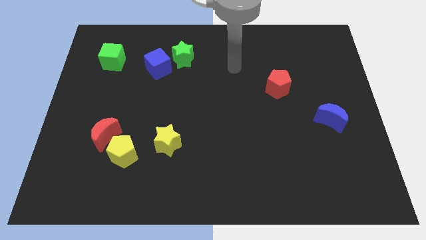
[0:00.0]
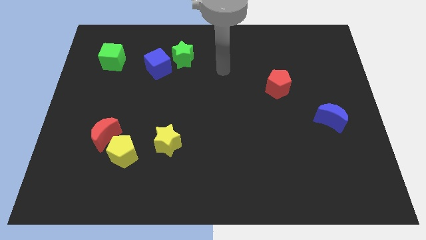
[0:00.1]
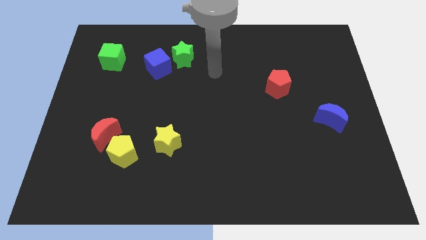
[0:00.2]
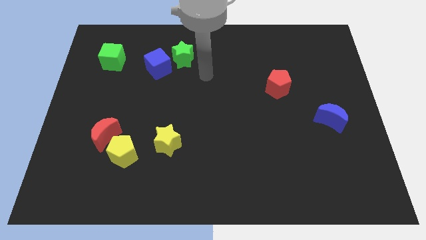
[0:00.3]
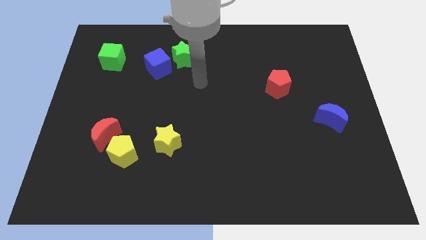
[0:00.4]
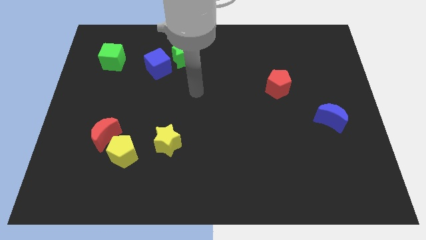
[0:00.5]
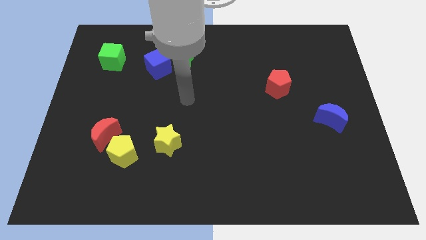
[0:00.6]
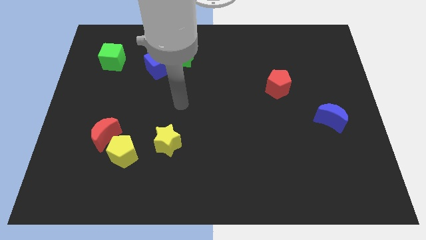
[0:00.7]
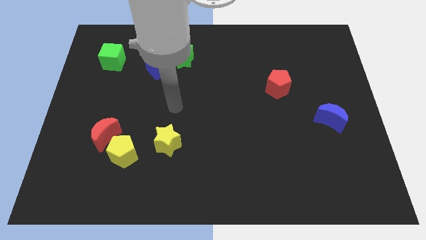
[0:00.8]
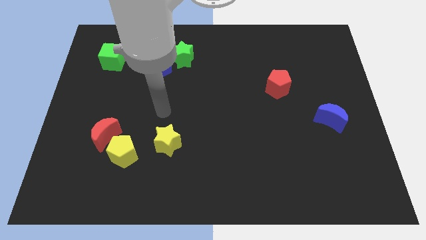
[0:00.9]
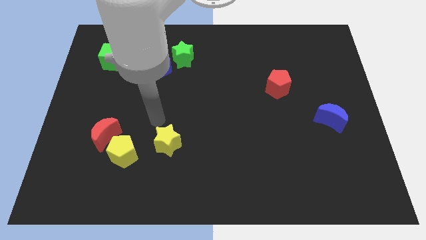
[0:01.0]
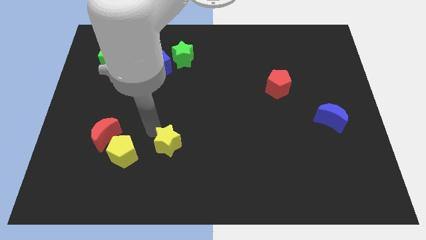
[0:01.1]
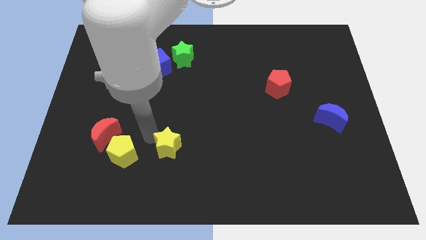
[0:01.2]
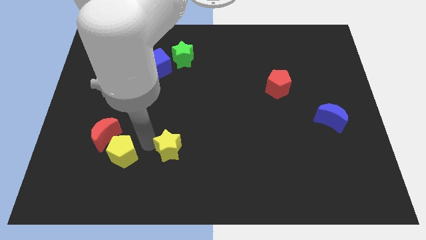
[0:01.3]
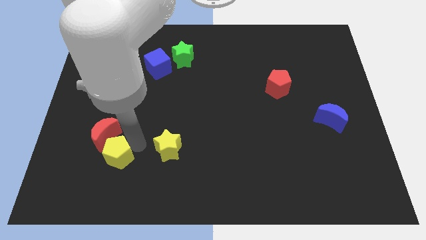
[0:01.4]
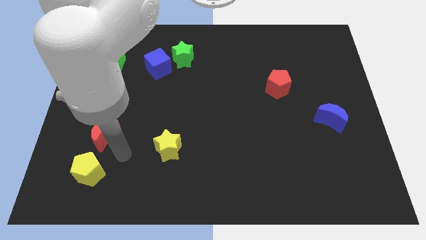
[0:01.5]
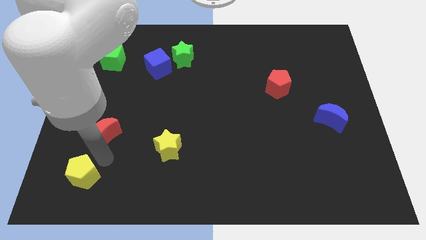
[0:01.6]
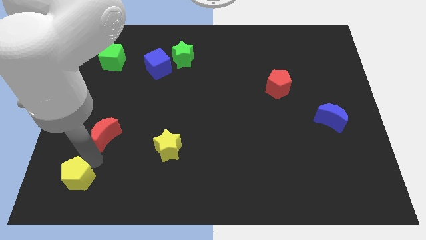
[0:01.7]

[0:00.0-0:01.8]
move the red moon away from the yellow pentagon

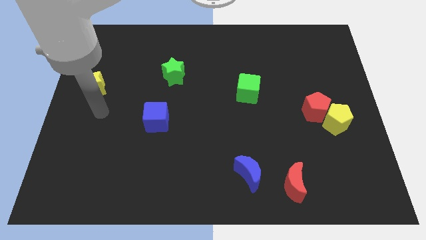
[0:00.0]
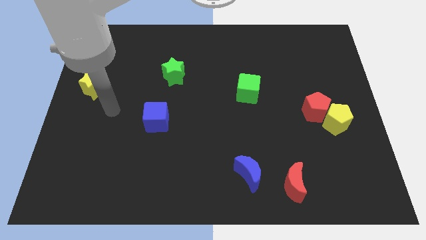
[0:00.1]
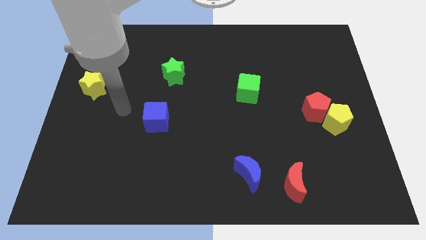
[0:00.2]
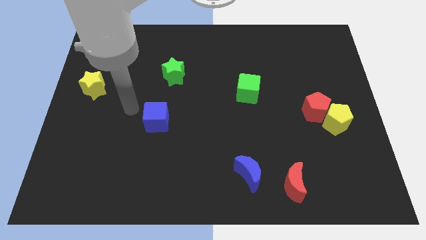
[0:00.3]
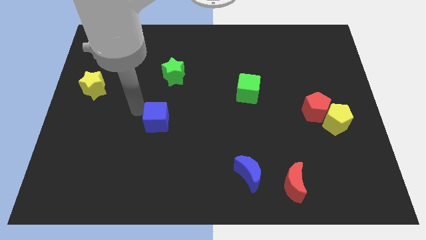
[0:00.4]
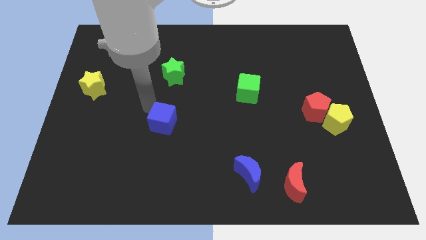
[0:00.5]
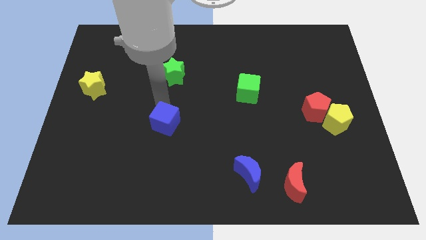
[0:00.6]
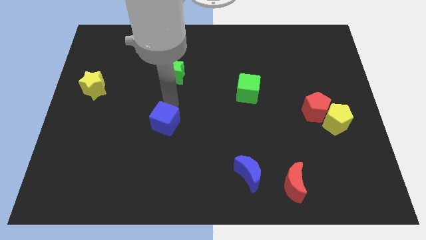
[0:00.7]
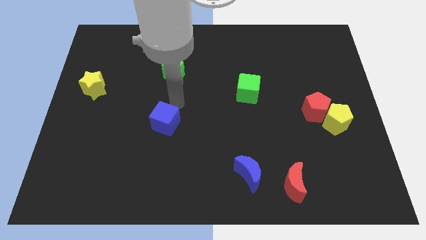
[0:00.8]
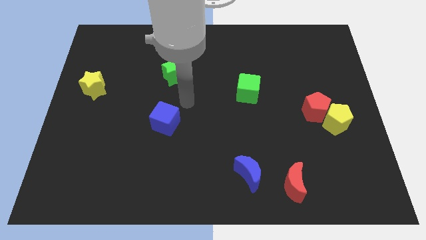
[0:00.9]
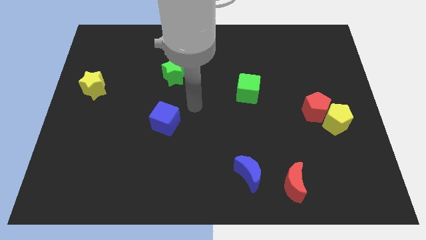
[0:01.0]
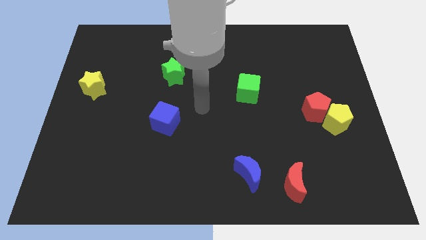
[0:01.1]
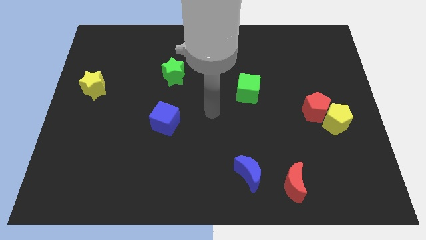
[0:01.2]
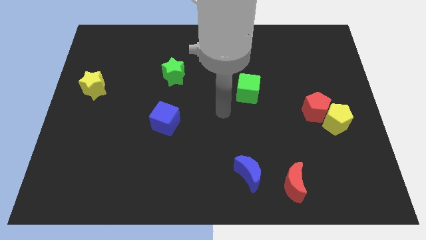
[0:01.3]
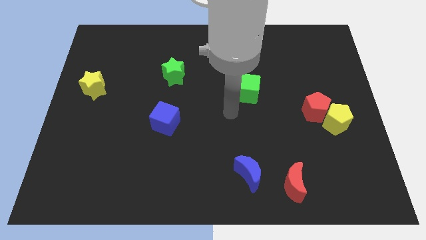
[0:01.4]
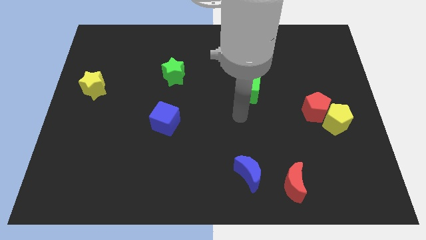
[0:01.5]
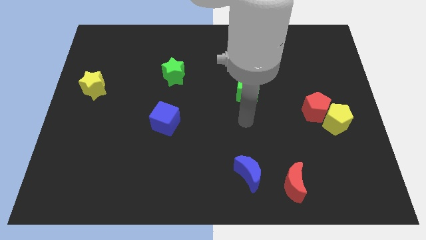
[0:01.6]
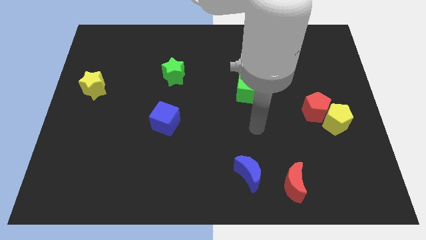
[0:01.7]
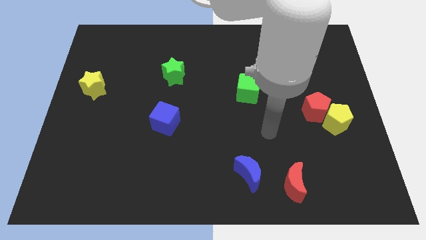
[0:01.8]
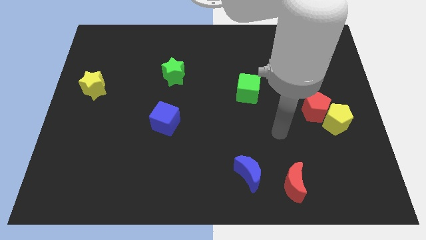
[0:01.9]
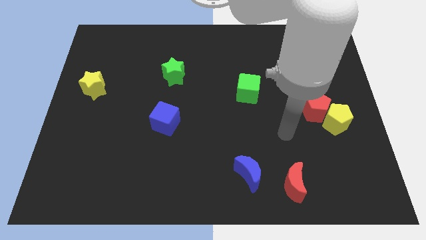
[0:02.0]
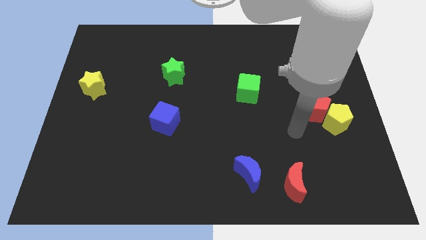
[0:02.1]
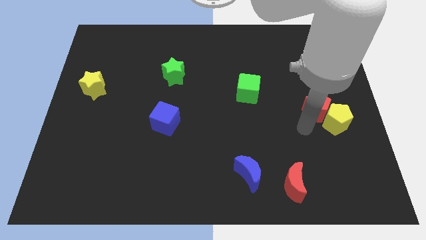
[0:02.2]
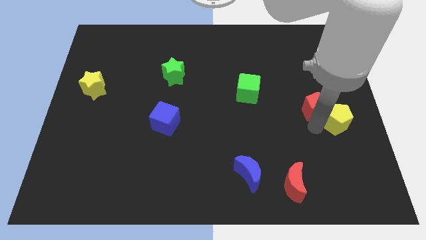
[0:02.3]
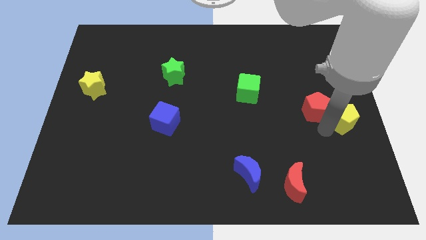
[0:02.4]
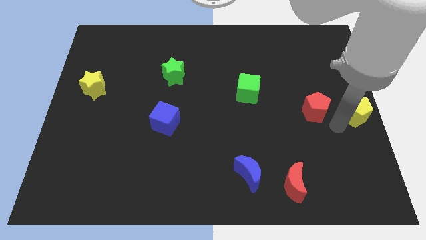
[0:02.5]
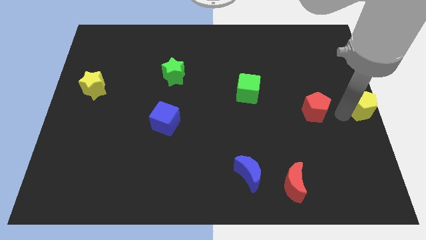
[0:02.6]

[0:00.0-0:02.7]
move the red pentagon away from the yellow pentagon

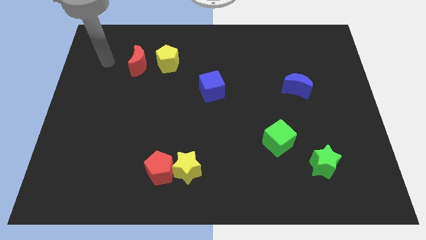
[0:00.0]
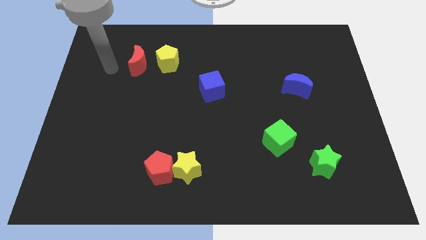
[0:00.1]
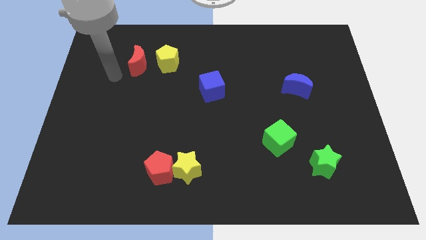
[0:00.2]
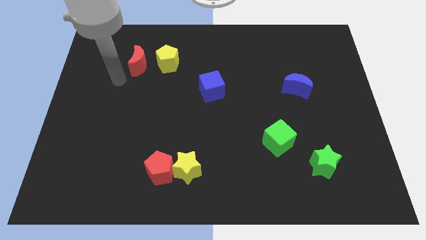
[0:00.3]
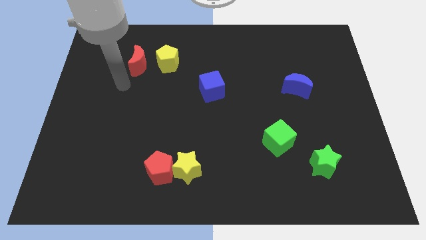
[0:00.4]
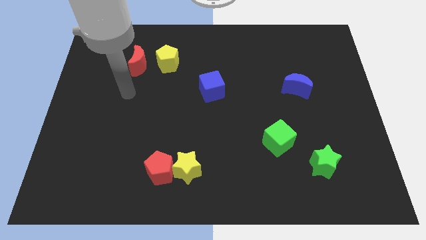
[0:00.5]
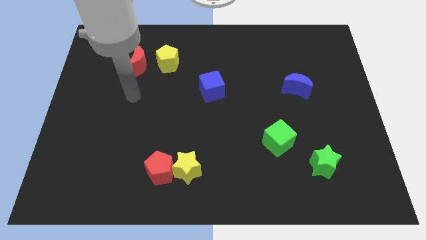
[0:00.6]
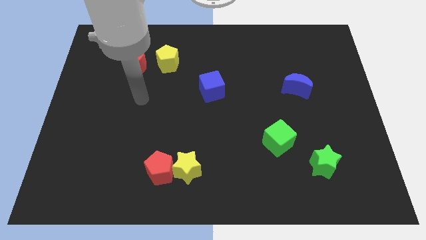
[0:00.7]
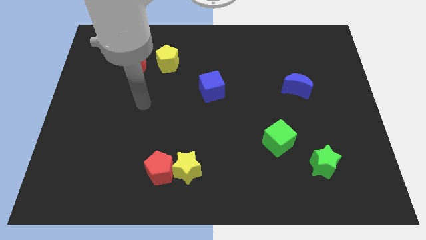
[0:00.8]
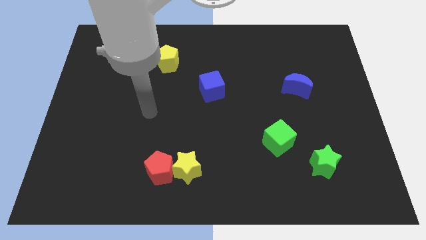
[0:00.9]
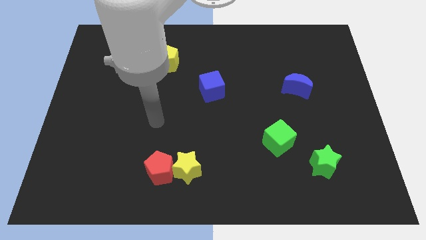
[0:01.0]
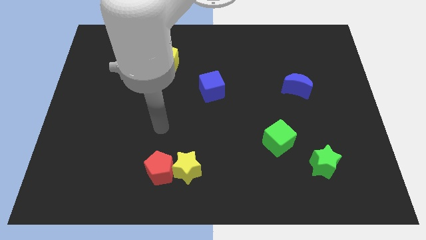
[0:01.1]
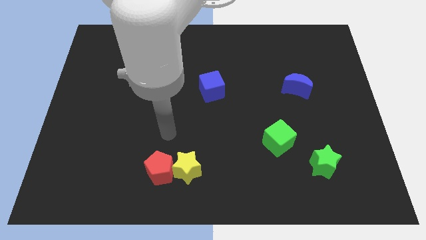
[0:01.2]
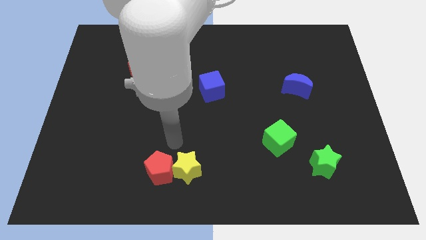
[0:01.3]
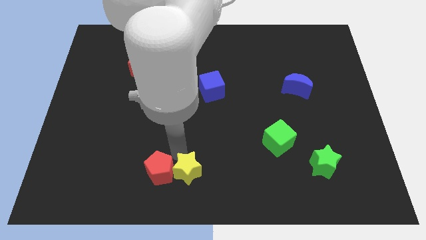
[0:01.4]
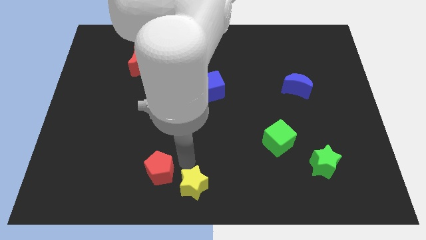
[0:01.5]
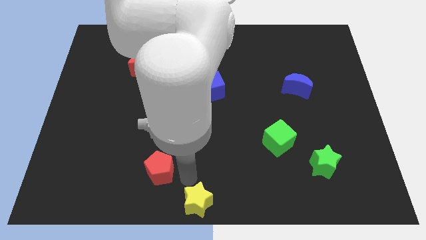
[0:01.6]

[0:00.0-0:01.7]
pull the red pentagon apart from the yellow star

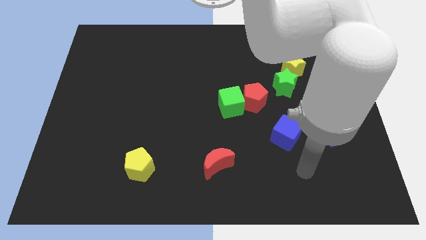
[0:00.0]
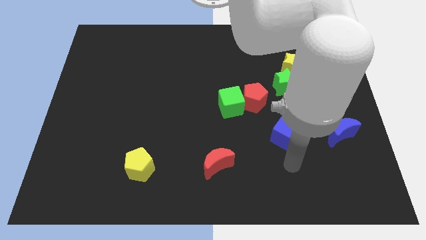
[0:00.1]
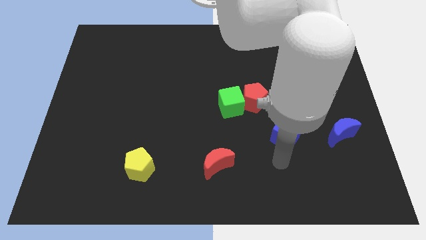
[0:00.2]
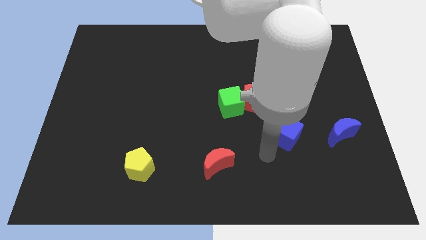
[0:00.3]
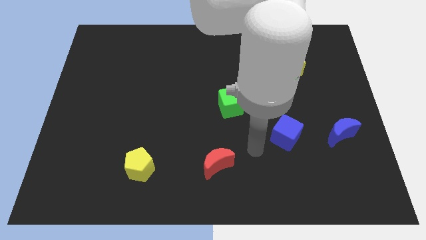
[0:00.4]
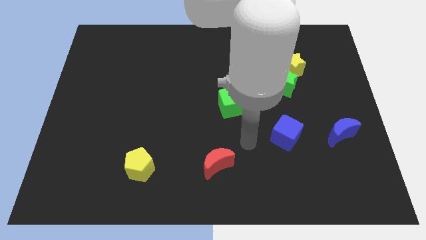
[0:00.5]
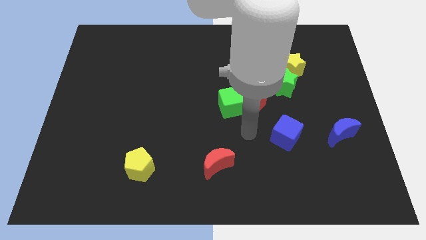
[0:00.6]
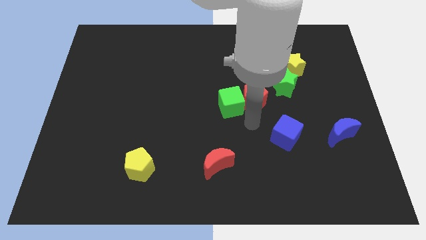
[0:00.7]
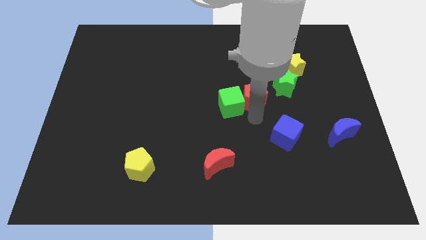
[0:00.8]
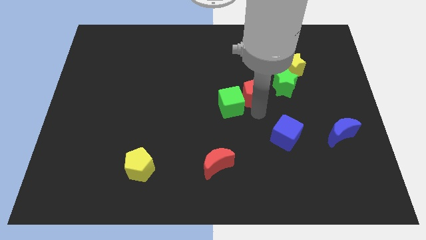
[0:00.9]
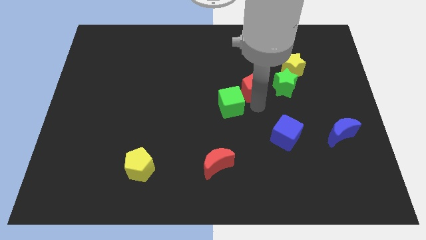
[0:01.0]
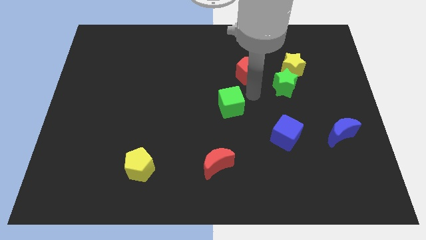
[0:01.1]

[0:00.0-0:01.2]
separate the green cube from the red pentagon

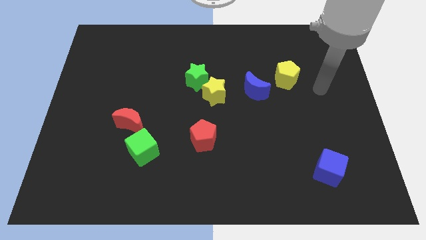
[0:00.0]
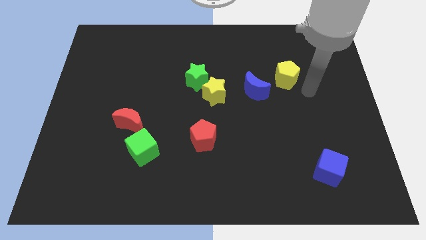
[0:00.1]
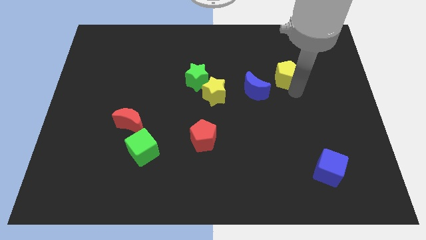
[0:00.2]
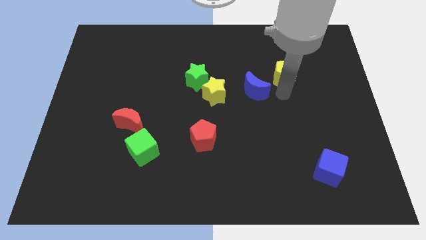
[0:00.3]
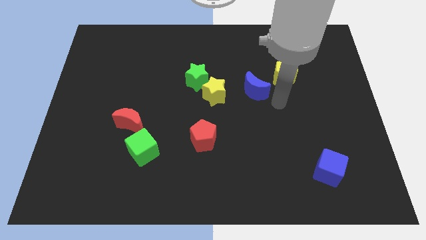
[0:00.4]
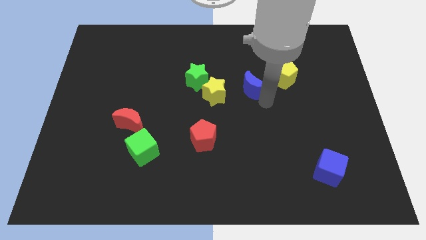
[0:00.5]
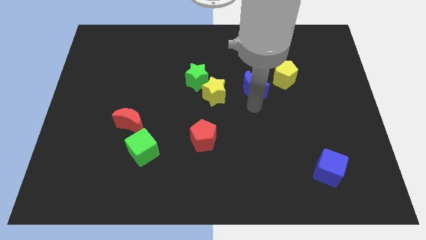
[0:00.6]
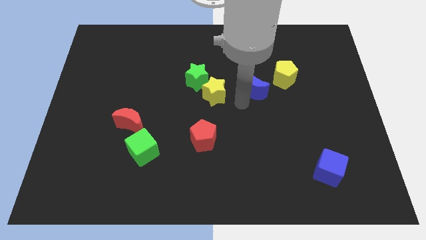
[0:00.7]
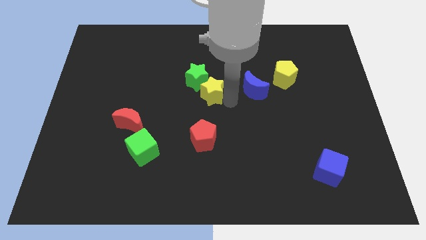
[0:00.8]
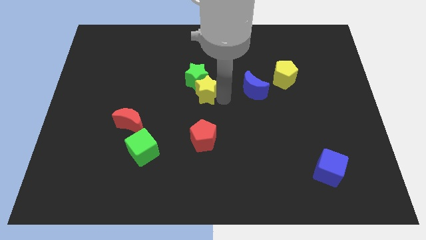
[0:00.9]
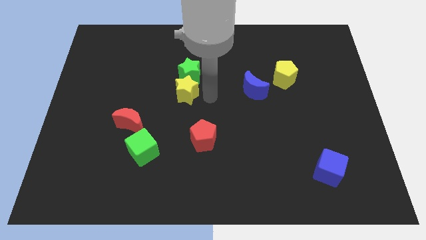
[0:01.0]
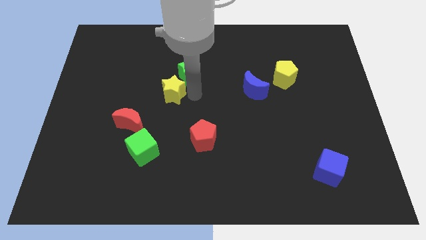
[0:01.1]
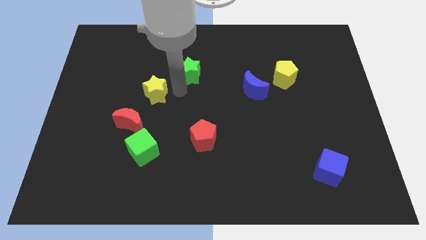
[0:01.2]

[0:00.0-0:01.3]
separate the green star from the yellow star

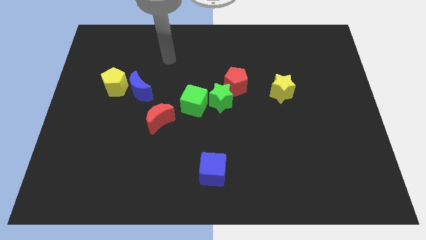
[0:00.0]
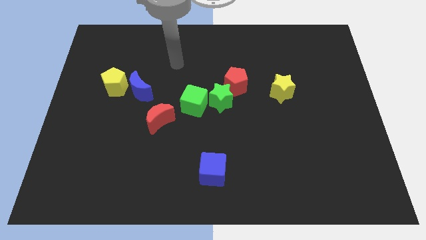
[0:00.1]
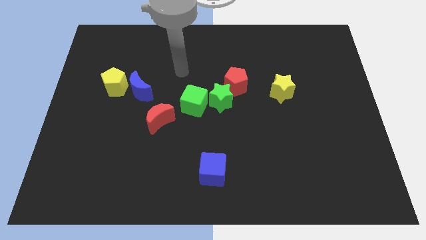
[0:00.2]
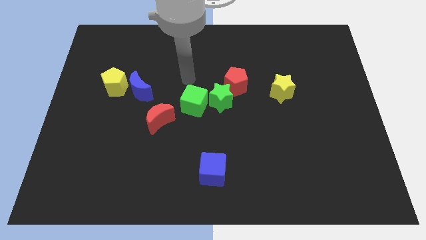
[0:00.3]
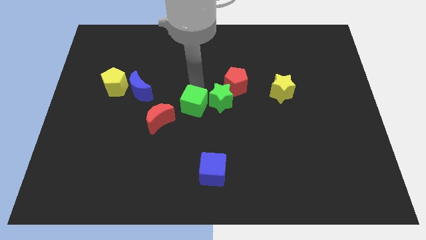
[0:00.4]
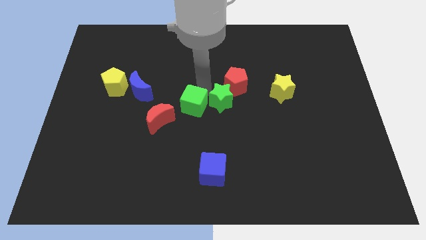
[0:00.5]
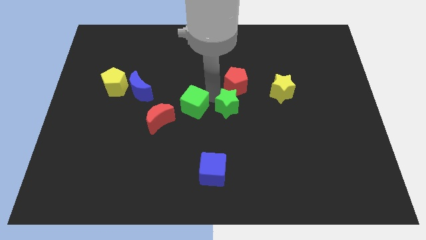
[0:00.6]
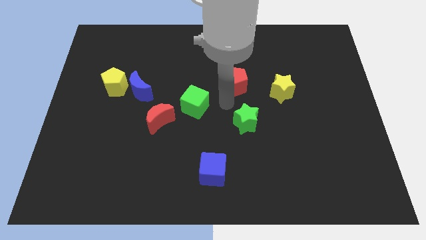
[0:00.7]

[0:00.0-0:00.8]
move the red pentagon away from the green star
